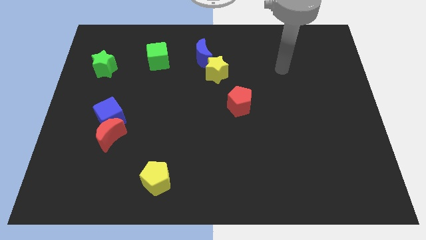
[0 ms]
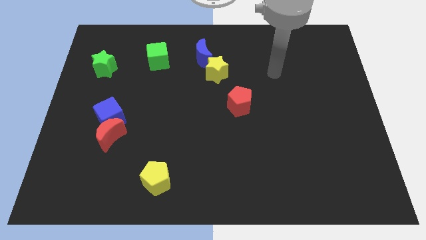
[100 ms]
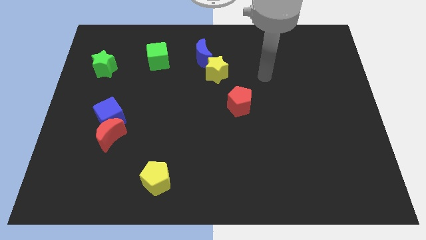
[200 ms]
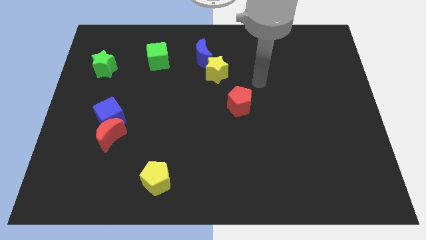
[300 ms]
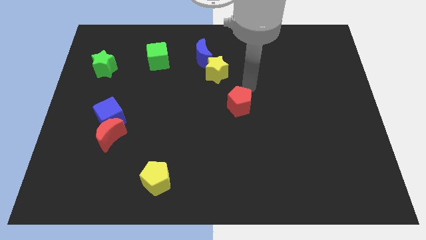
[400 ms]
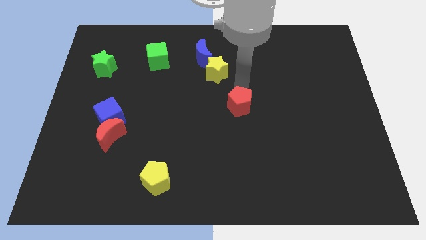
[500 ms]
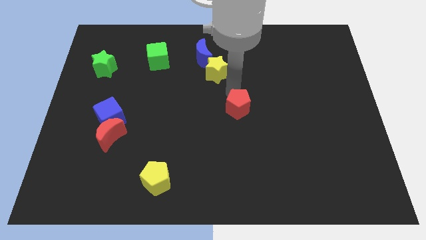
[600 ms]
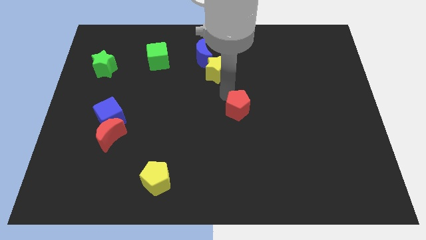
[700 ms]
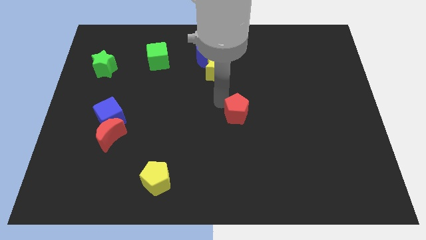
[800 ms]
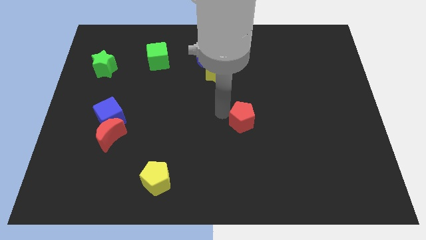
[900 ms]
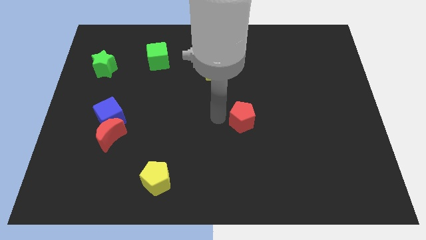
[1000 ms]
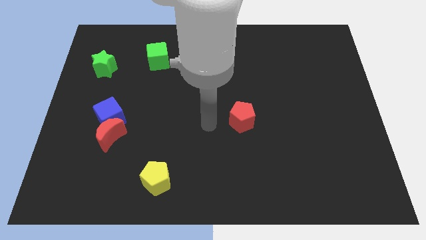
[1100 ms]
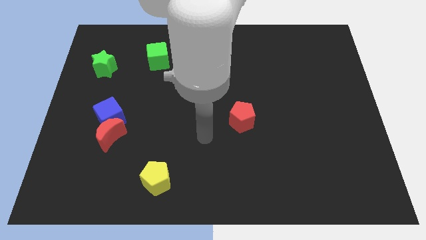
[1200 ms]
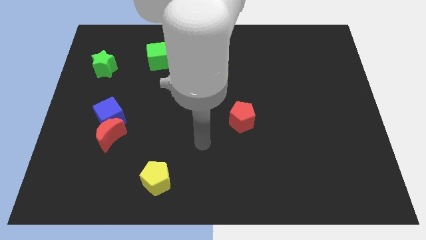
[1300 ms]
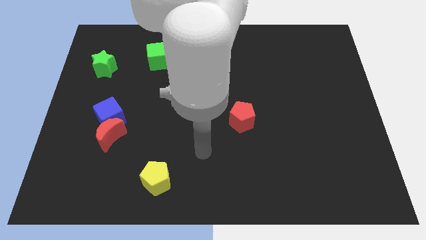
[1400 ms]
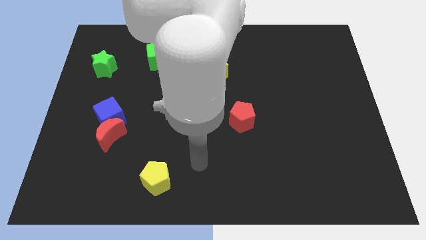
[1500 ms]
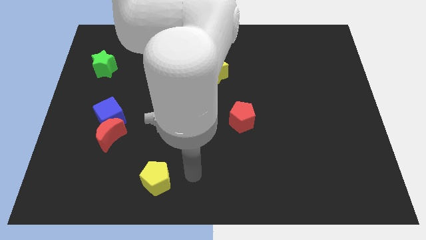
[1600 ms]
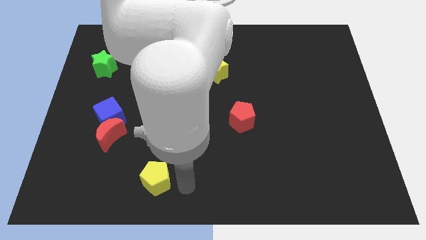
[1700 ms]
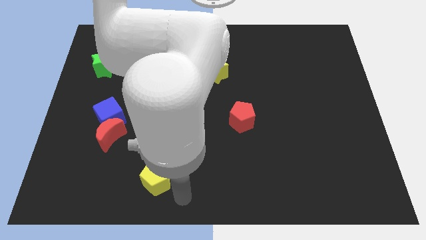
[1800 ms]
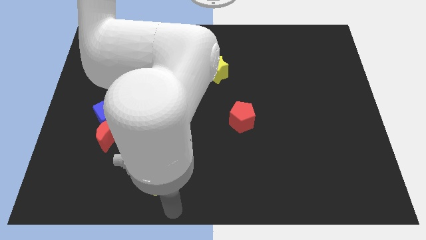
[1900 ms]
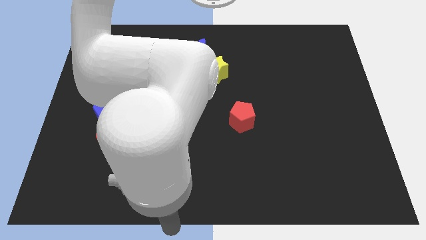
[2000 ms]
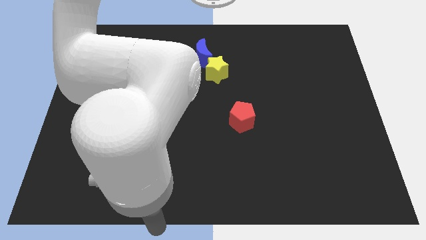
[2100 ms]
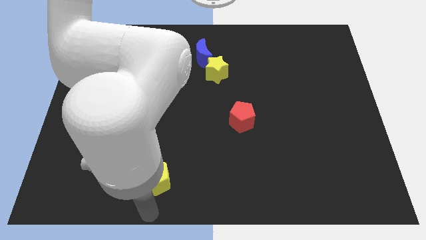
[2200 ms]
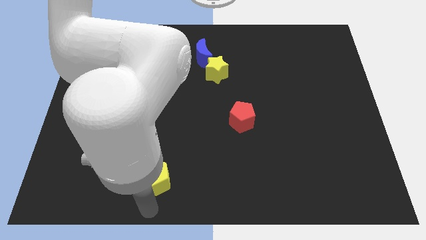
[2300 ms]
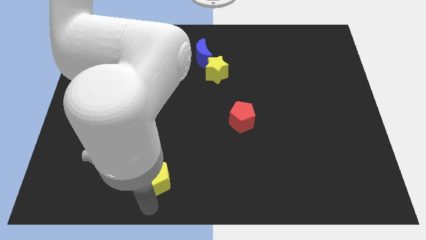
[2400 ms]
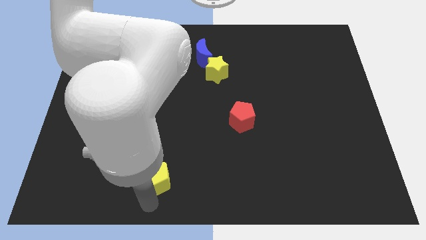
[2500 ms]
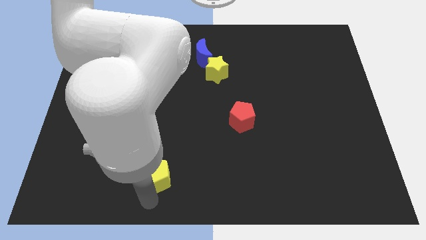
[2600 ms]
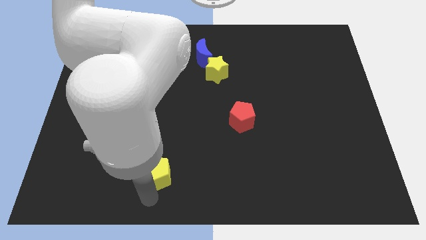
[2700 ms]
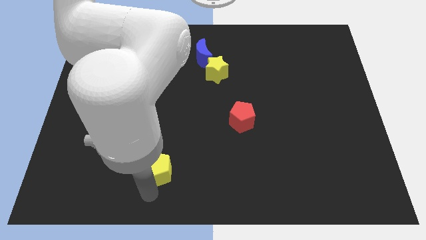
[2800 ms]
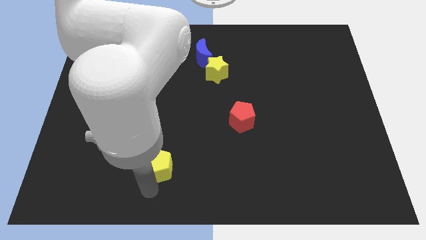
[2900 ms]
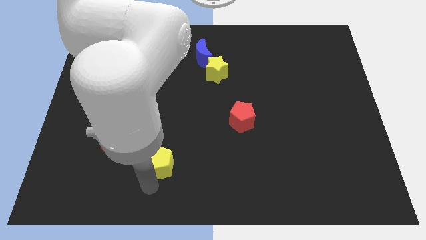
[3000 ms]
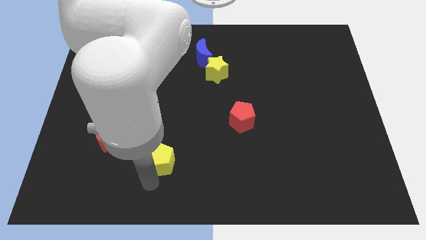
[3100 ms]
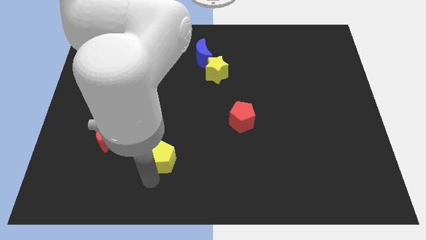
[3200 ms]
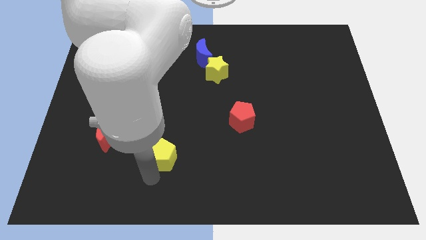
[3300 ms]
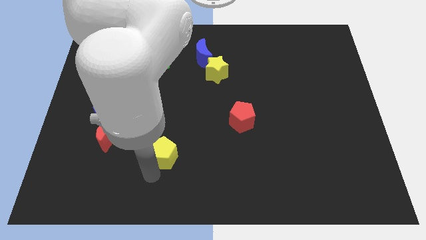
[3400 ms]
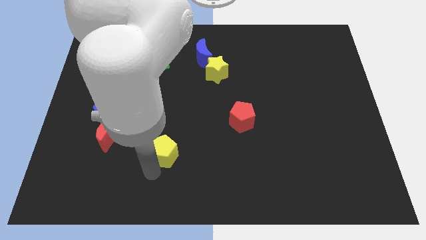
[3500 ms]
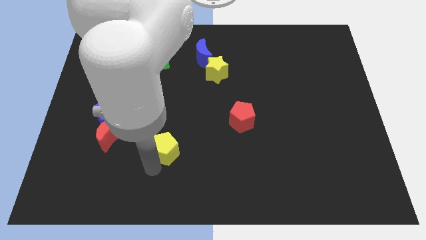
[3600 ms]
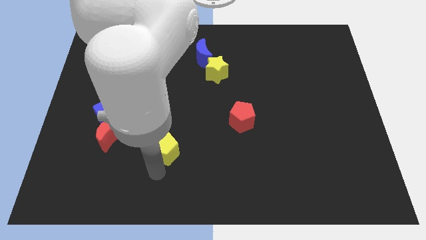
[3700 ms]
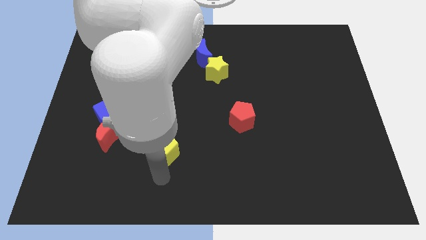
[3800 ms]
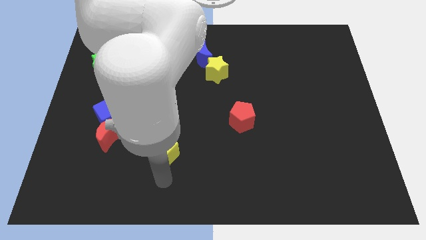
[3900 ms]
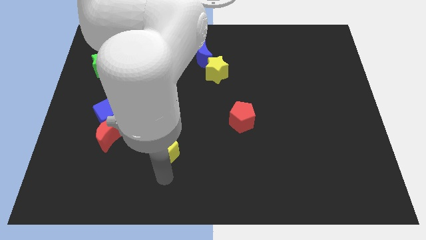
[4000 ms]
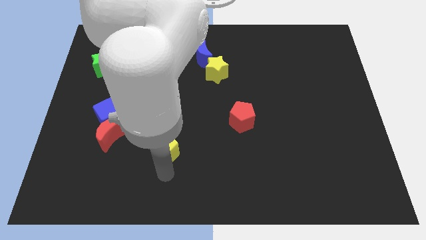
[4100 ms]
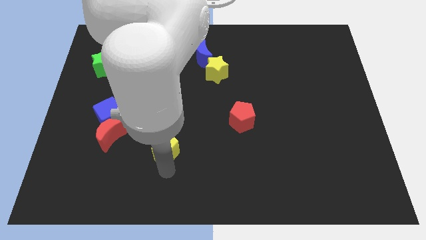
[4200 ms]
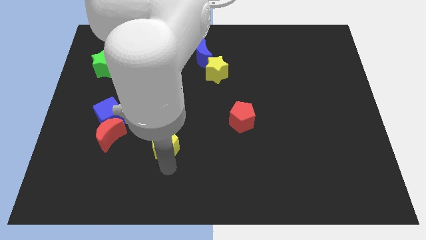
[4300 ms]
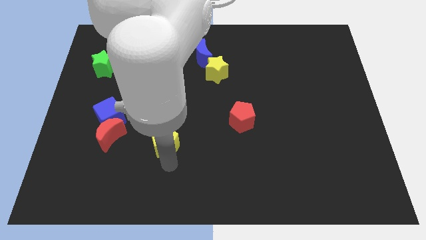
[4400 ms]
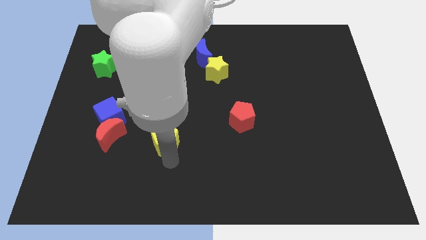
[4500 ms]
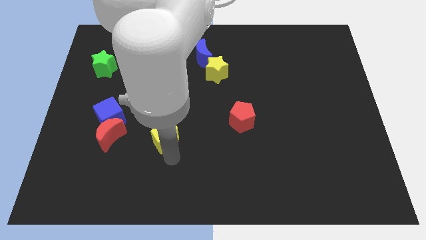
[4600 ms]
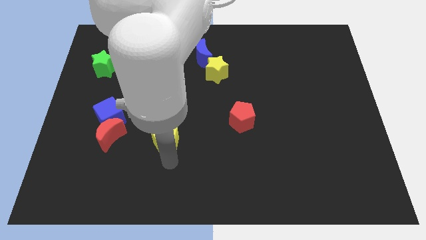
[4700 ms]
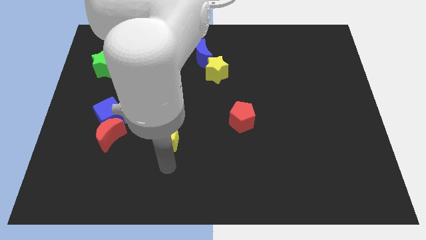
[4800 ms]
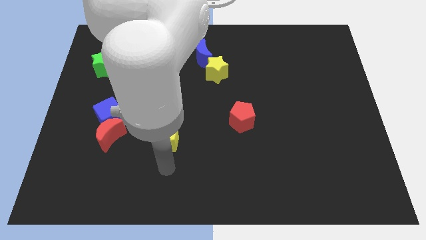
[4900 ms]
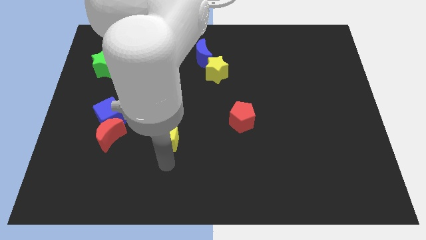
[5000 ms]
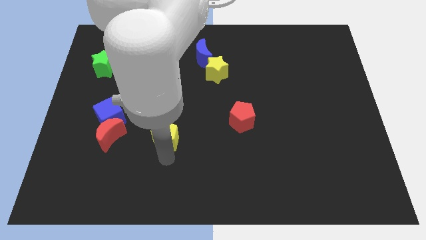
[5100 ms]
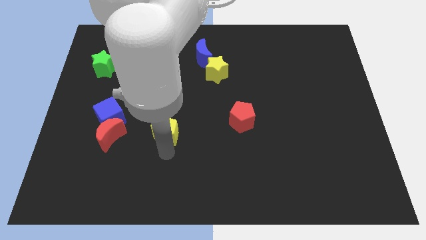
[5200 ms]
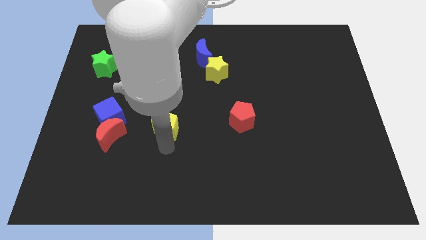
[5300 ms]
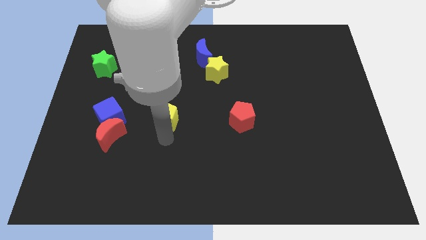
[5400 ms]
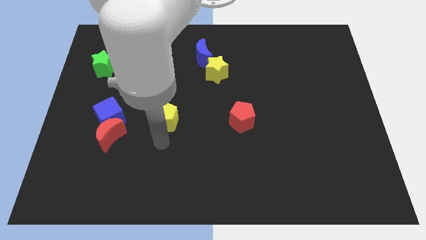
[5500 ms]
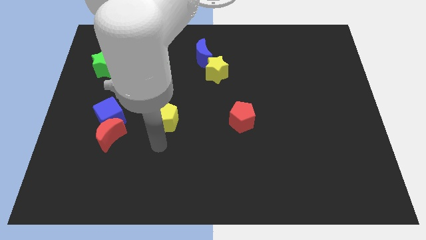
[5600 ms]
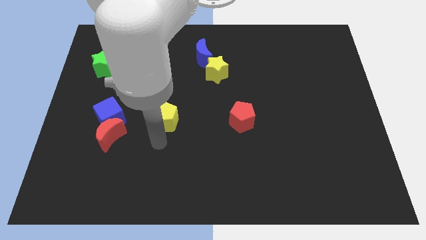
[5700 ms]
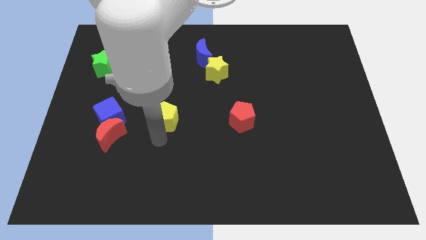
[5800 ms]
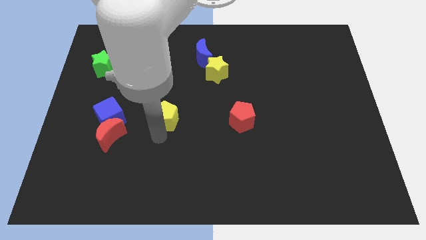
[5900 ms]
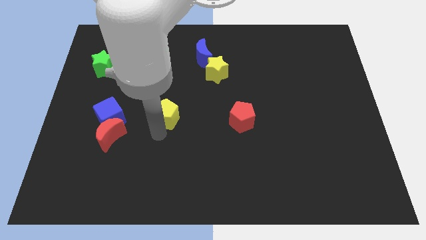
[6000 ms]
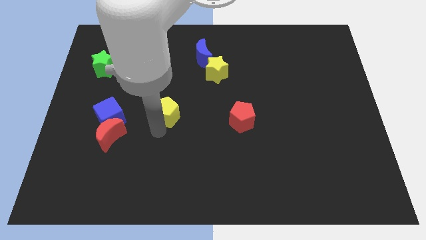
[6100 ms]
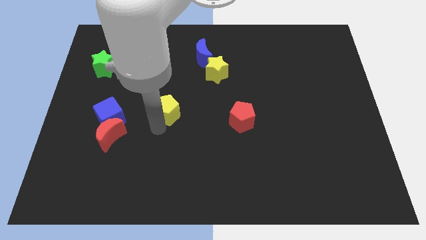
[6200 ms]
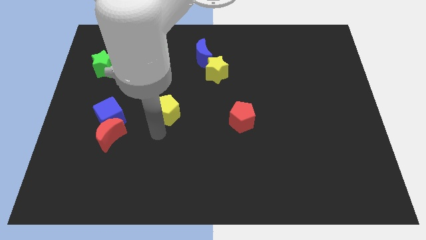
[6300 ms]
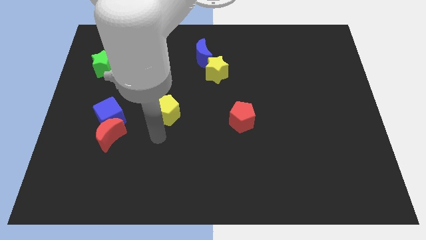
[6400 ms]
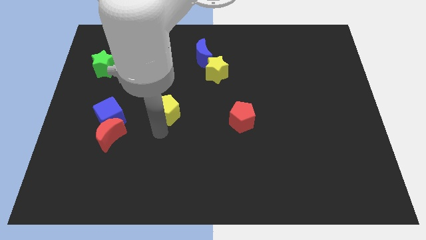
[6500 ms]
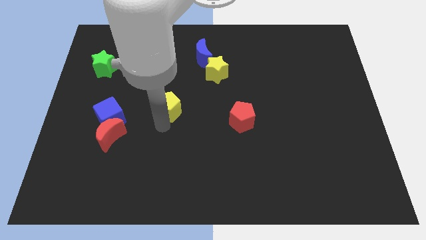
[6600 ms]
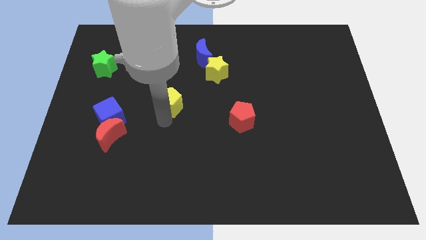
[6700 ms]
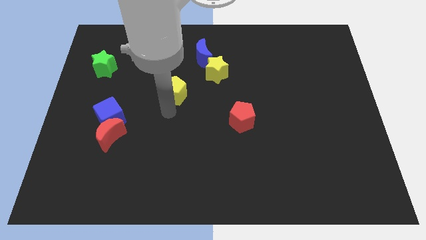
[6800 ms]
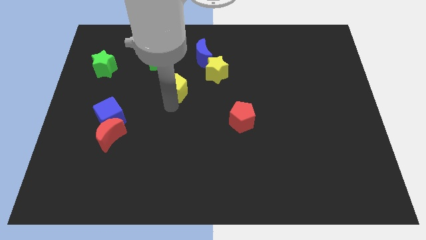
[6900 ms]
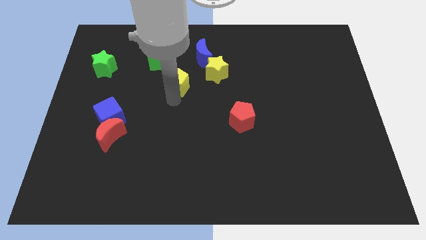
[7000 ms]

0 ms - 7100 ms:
slide the yellow pentagon diagonally down and to the right of the green cube
